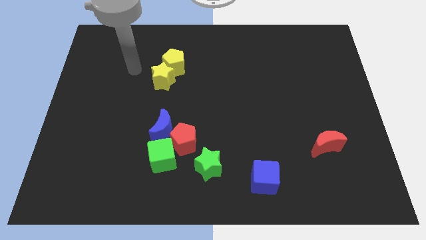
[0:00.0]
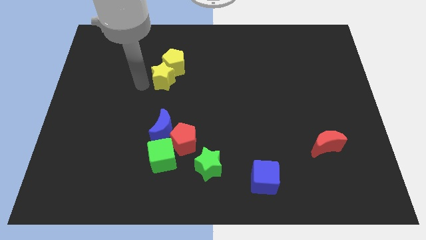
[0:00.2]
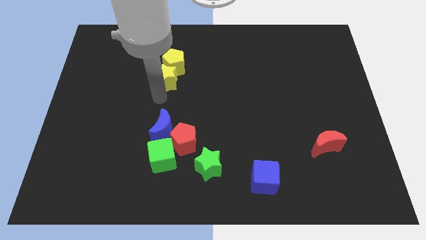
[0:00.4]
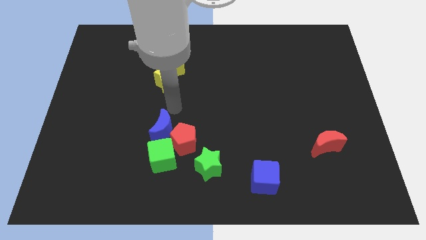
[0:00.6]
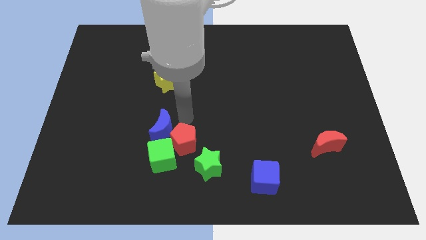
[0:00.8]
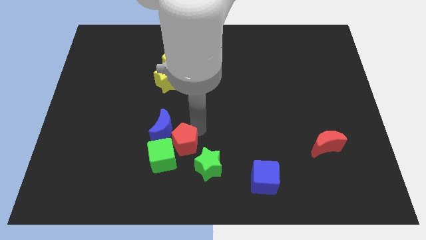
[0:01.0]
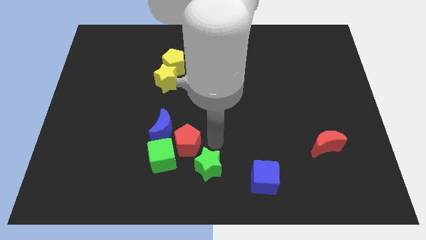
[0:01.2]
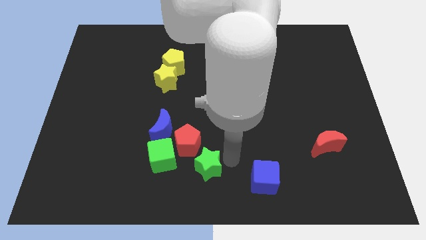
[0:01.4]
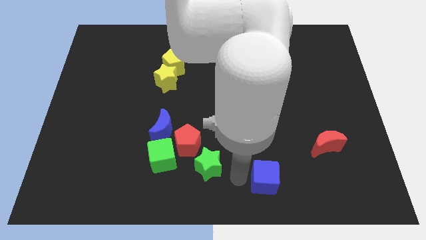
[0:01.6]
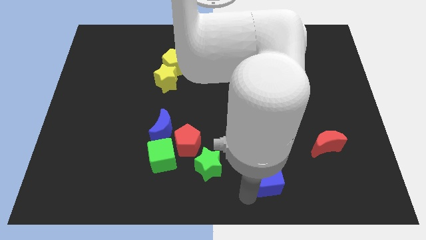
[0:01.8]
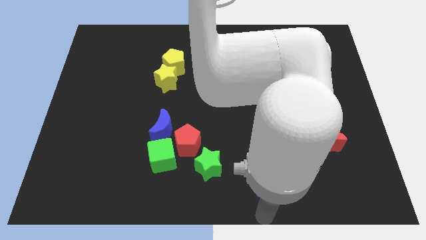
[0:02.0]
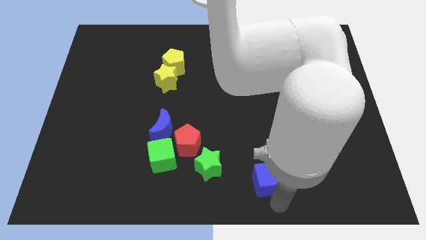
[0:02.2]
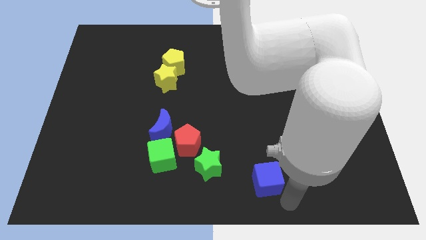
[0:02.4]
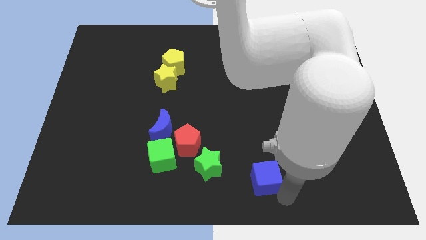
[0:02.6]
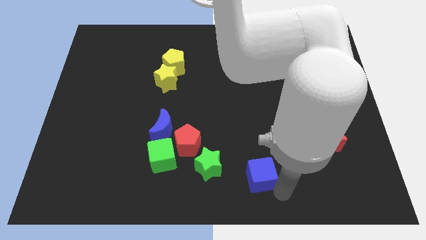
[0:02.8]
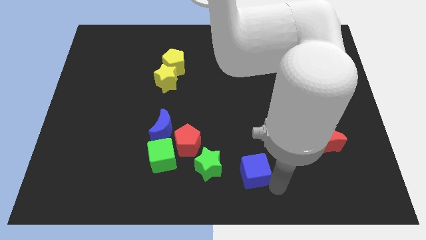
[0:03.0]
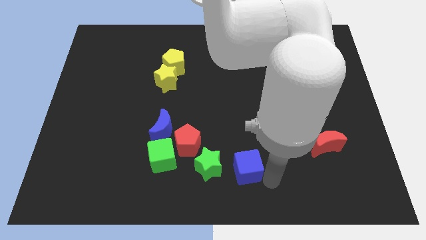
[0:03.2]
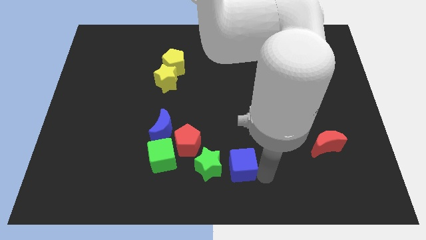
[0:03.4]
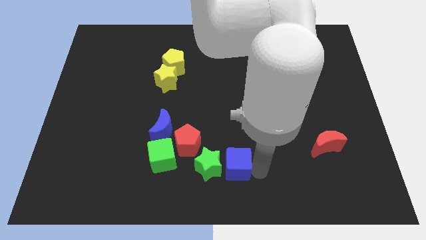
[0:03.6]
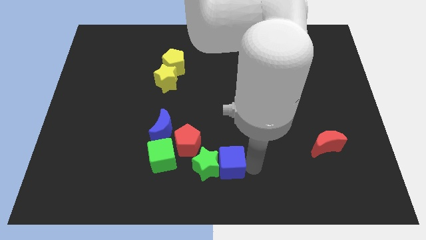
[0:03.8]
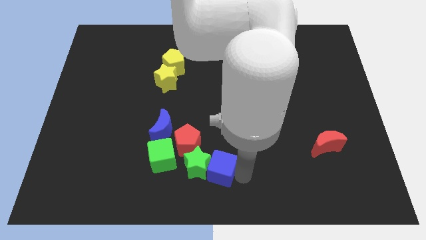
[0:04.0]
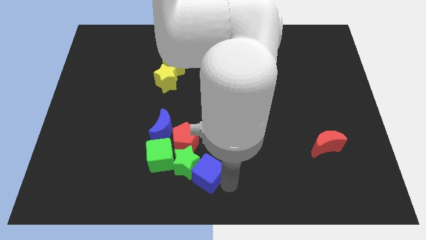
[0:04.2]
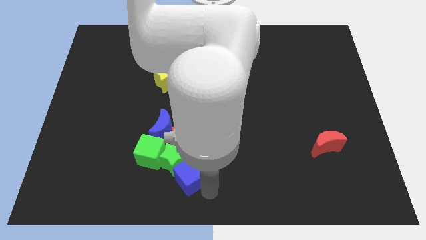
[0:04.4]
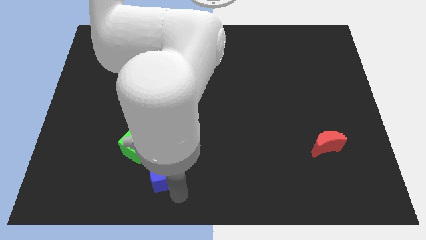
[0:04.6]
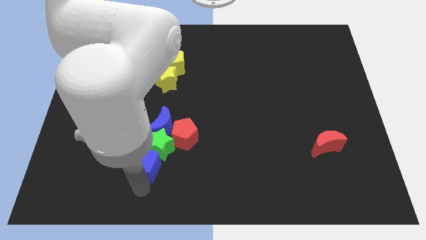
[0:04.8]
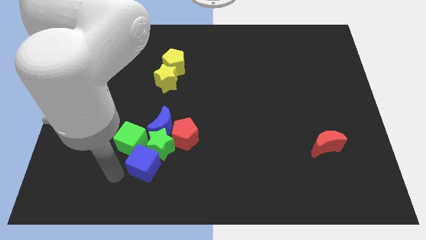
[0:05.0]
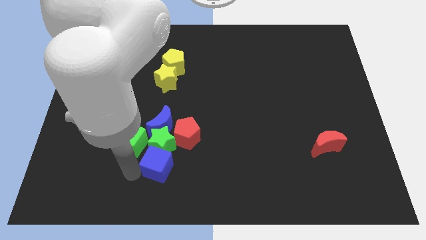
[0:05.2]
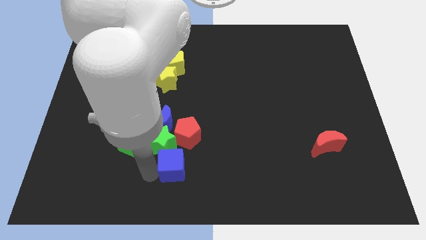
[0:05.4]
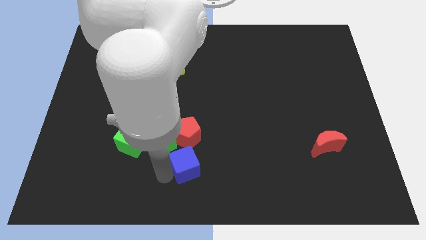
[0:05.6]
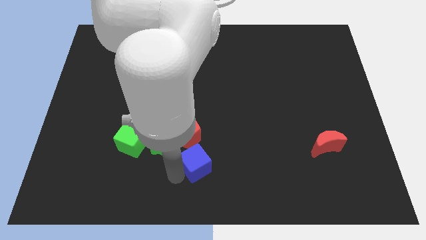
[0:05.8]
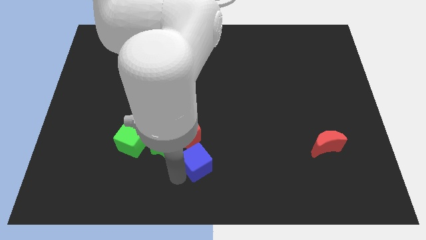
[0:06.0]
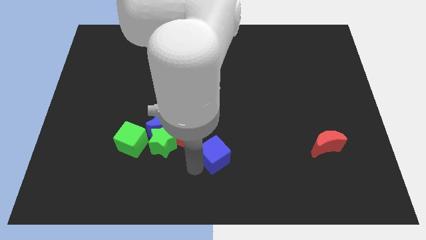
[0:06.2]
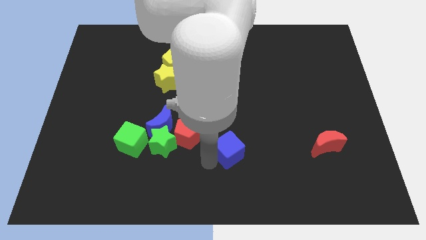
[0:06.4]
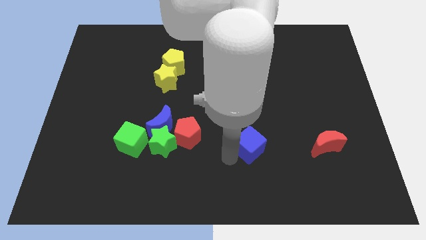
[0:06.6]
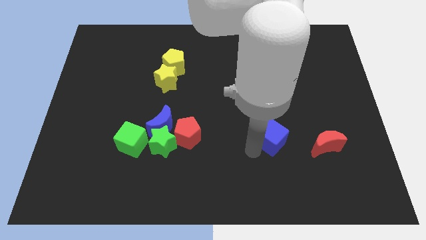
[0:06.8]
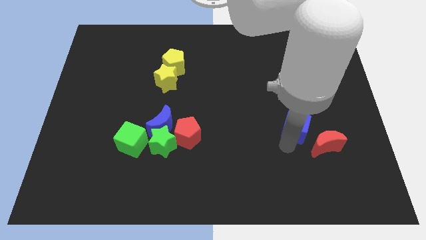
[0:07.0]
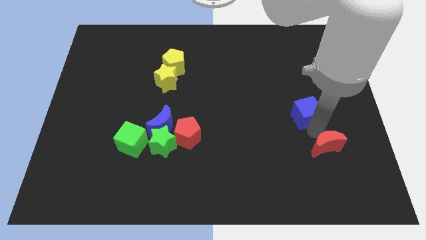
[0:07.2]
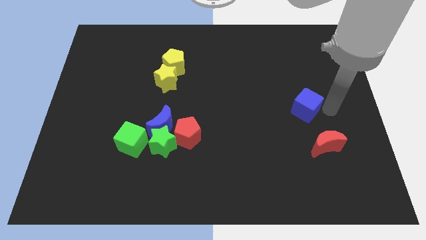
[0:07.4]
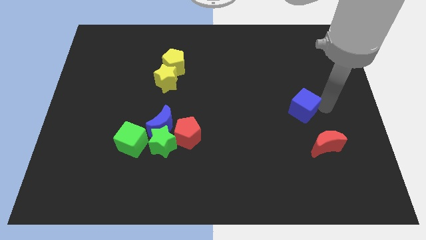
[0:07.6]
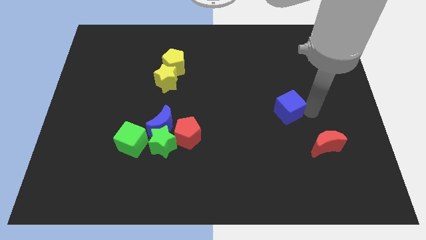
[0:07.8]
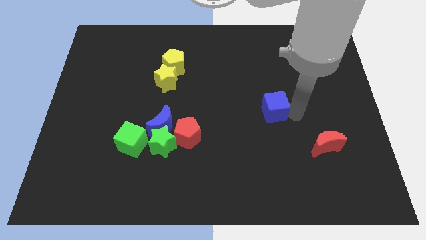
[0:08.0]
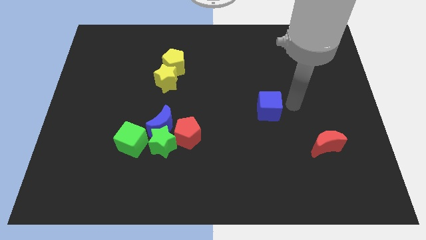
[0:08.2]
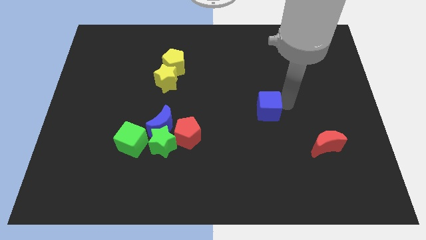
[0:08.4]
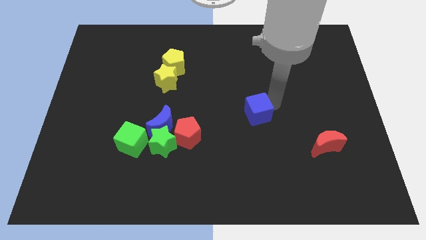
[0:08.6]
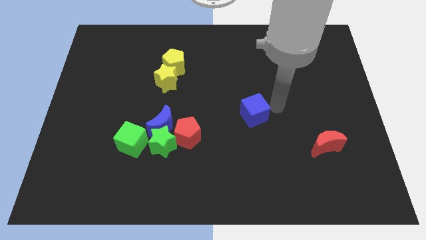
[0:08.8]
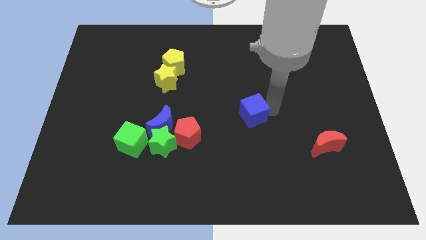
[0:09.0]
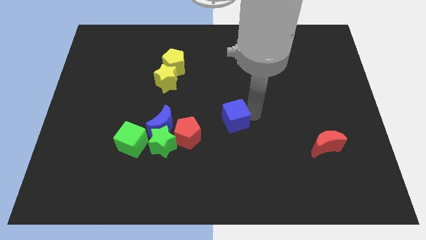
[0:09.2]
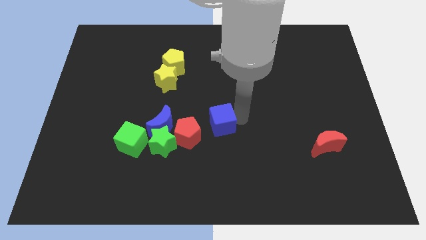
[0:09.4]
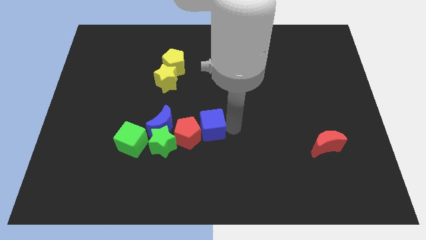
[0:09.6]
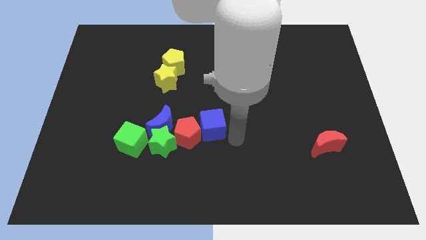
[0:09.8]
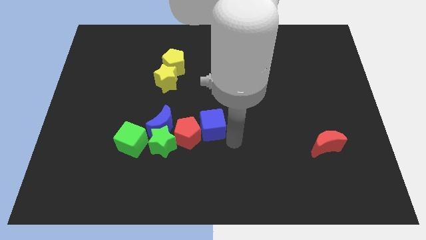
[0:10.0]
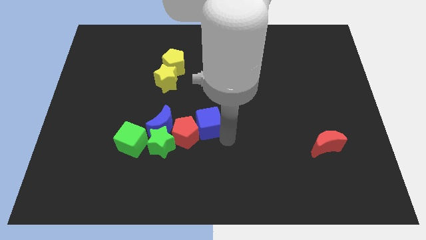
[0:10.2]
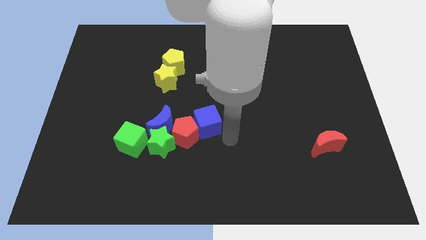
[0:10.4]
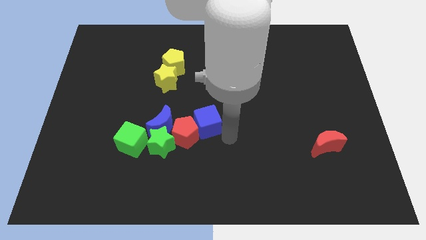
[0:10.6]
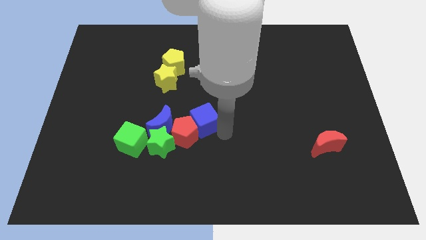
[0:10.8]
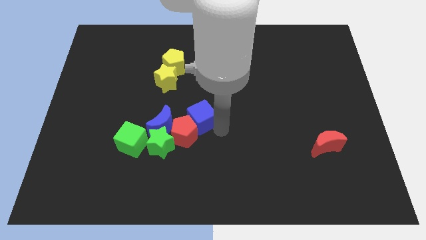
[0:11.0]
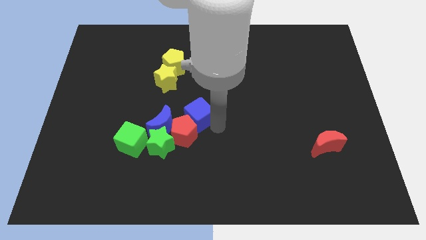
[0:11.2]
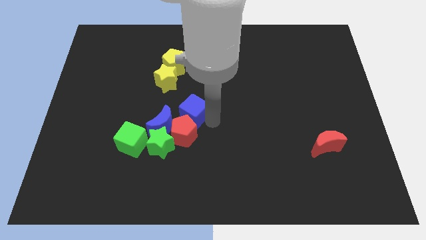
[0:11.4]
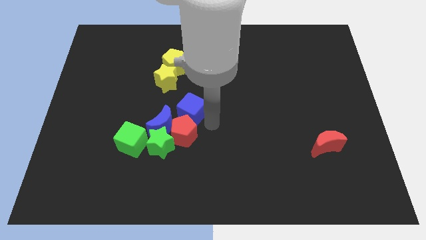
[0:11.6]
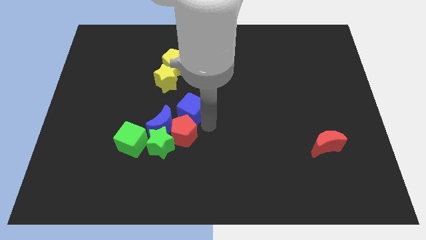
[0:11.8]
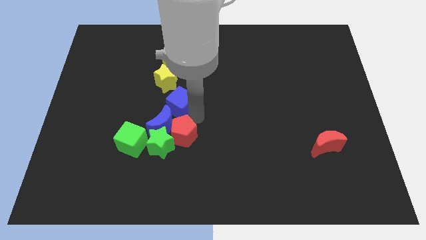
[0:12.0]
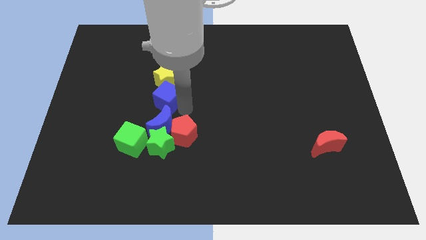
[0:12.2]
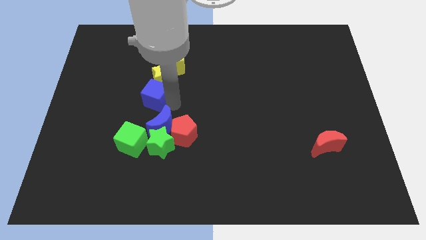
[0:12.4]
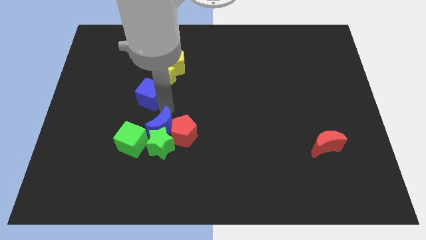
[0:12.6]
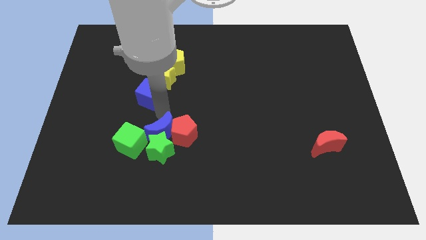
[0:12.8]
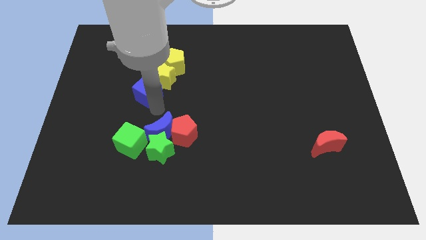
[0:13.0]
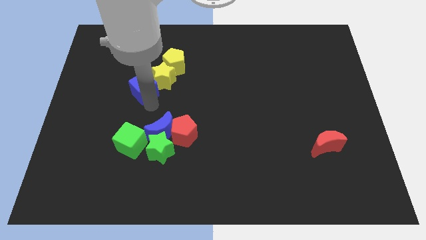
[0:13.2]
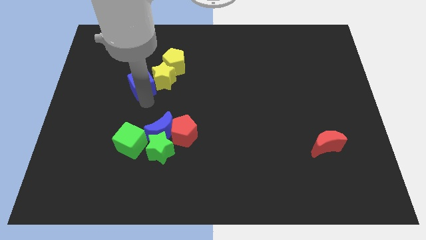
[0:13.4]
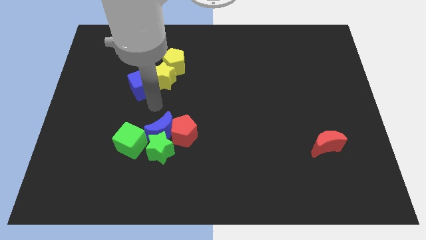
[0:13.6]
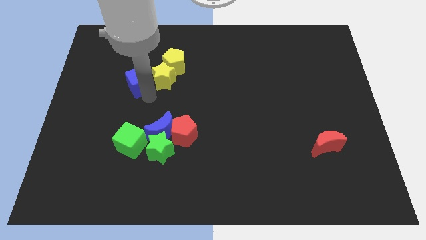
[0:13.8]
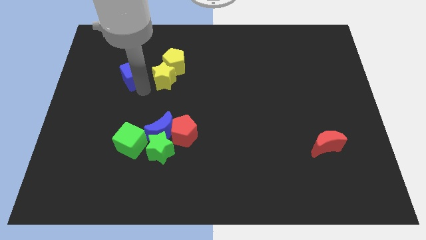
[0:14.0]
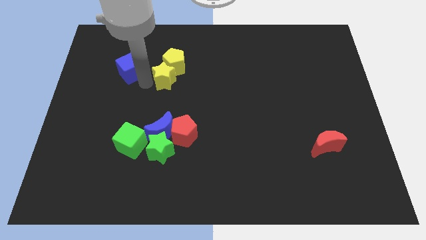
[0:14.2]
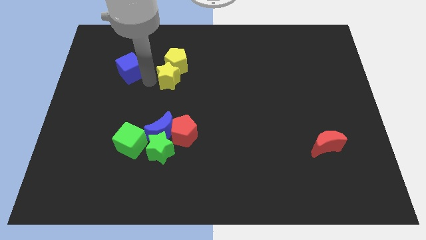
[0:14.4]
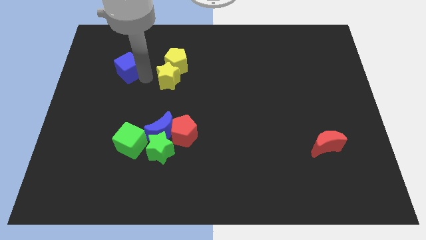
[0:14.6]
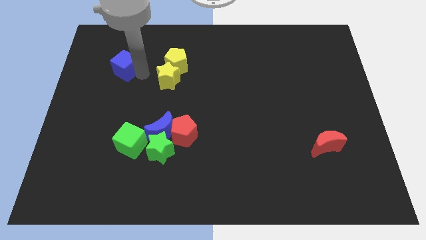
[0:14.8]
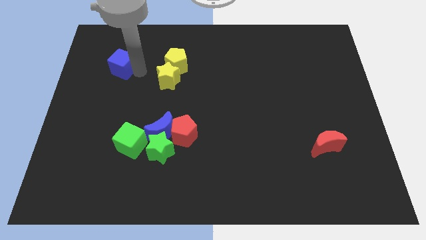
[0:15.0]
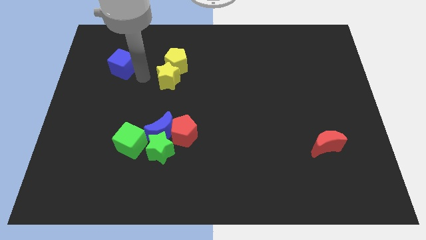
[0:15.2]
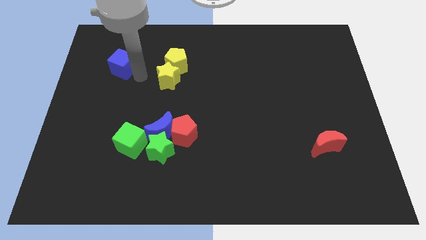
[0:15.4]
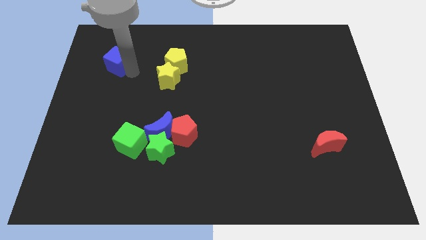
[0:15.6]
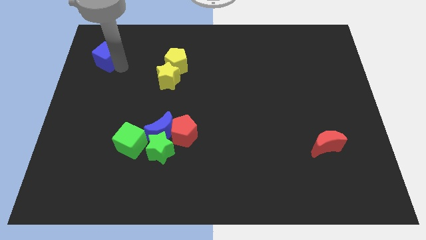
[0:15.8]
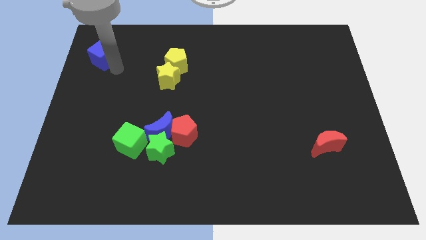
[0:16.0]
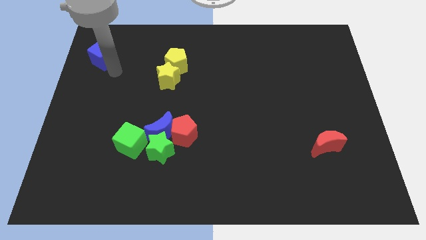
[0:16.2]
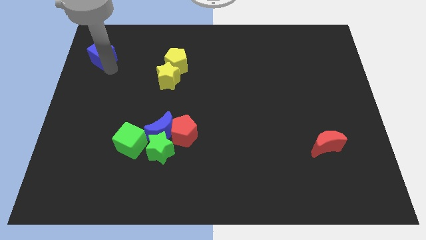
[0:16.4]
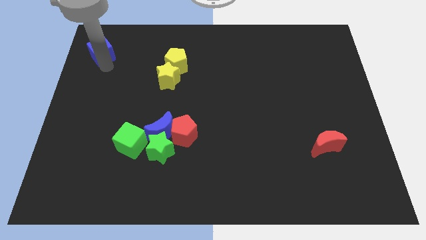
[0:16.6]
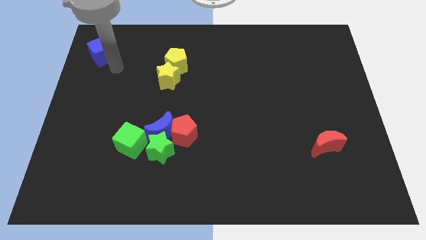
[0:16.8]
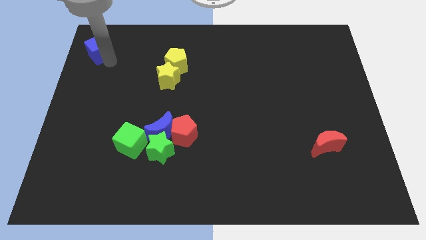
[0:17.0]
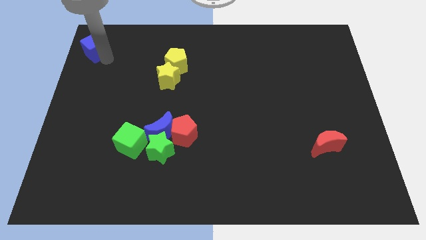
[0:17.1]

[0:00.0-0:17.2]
move the blue cube to the top left
